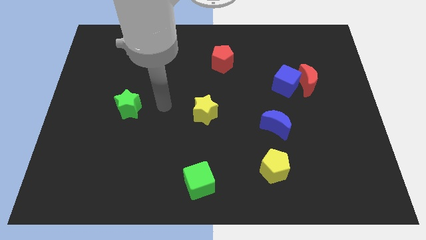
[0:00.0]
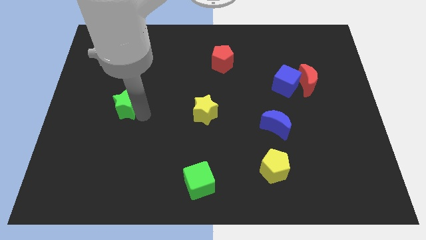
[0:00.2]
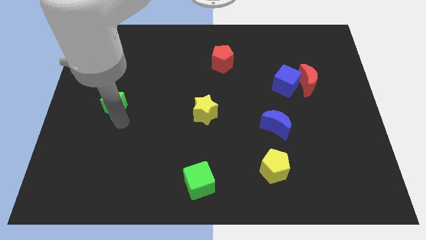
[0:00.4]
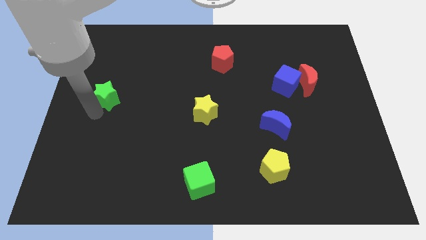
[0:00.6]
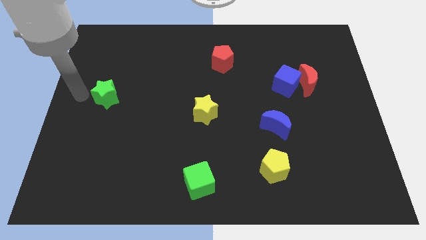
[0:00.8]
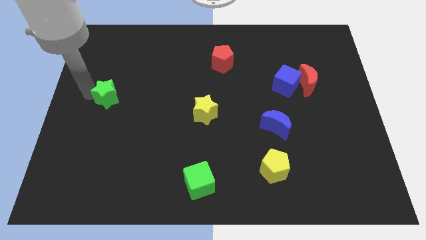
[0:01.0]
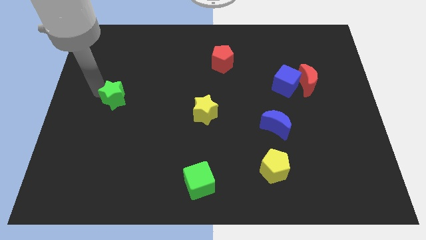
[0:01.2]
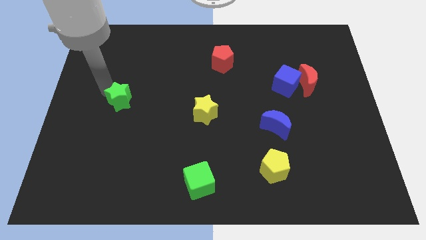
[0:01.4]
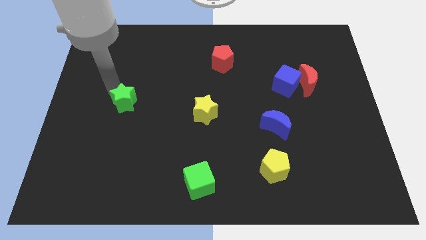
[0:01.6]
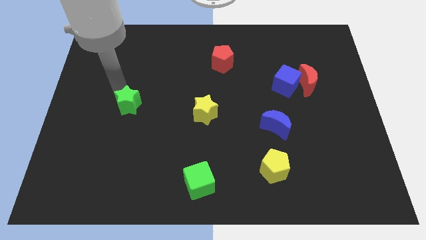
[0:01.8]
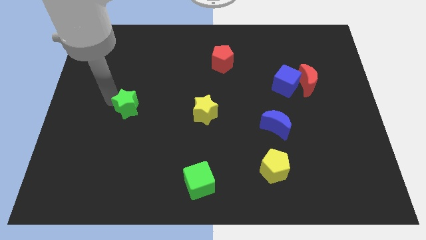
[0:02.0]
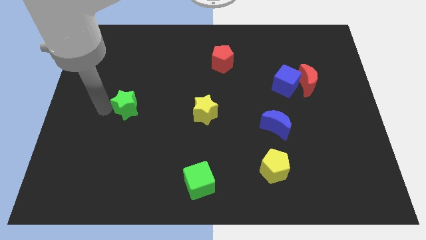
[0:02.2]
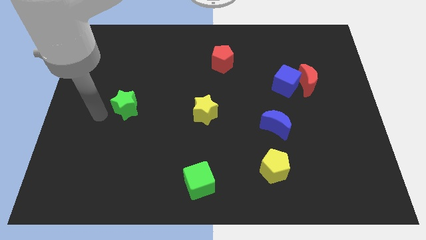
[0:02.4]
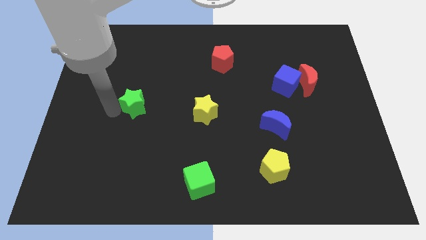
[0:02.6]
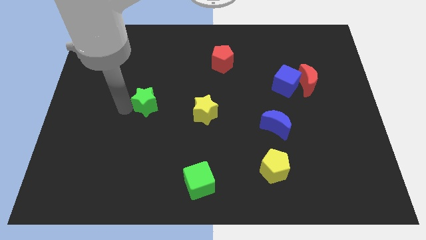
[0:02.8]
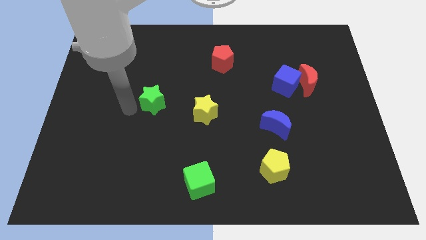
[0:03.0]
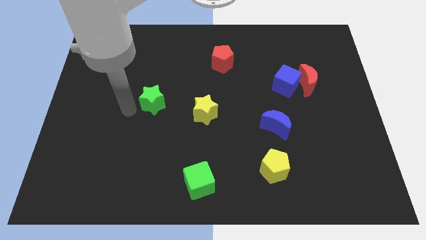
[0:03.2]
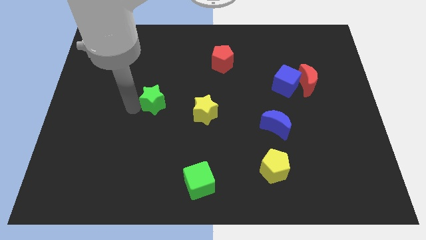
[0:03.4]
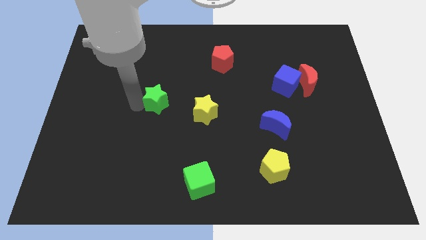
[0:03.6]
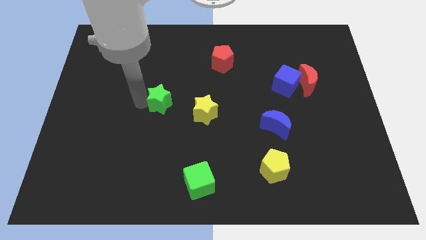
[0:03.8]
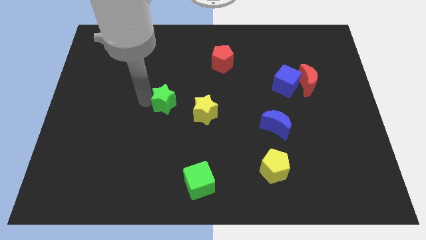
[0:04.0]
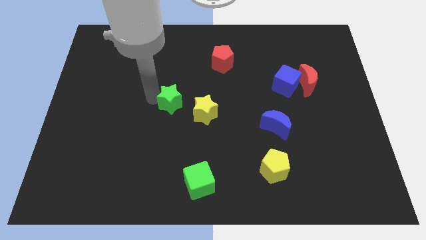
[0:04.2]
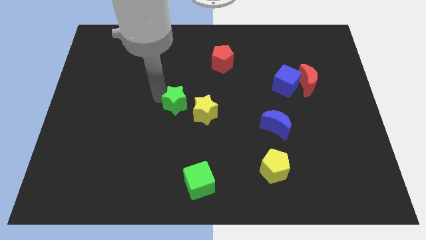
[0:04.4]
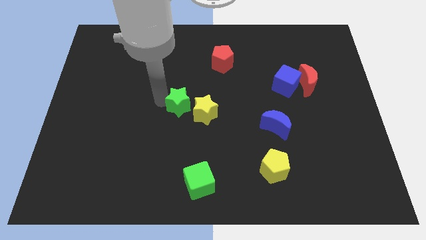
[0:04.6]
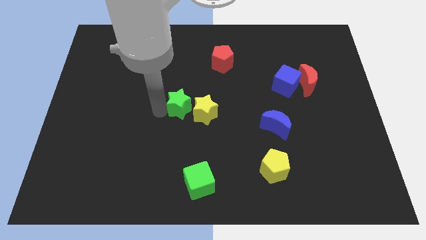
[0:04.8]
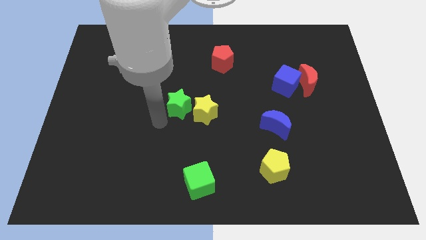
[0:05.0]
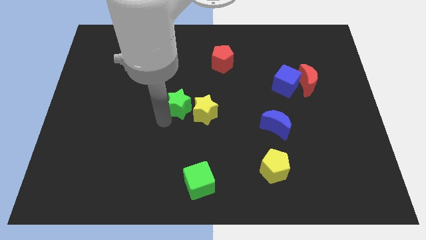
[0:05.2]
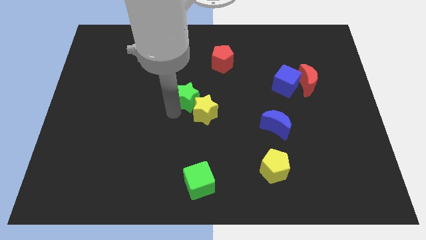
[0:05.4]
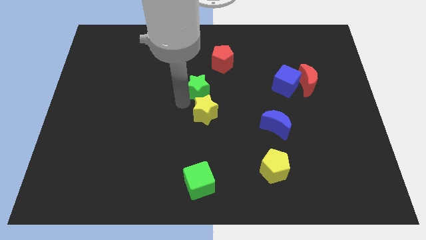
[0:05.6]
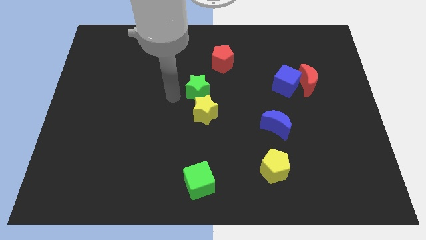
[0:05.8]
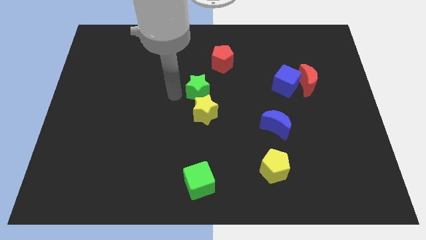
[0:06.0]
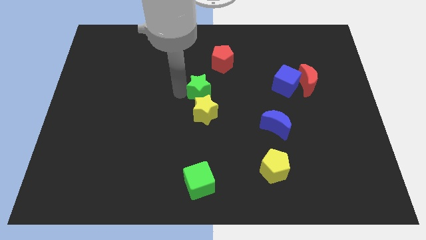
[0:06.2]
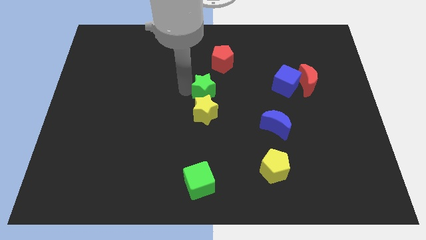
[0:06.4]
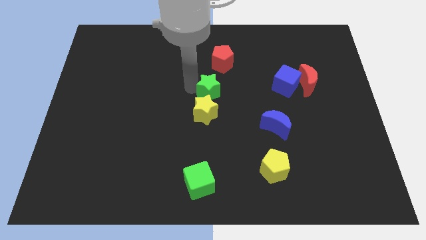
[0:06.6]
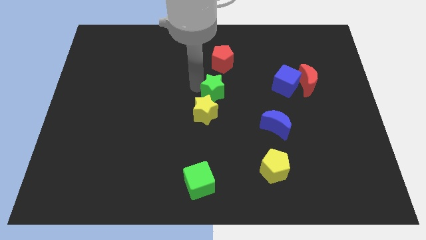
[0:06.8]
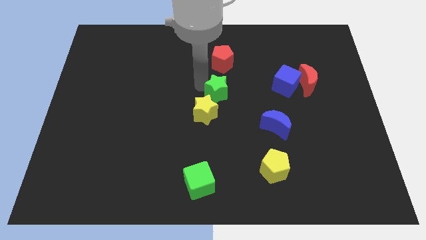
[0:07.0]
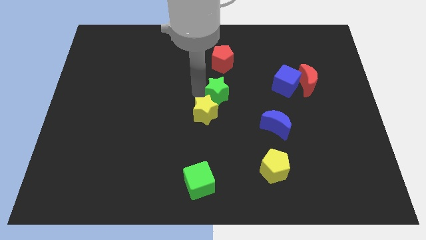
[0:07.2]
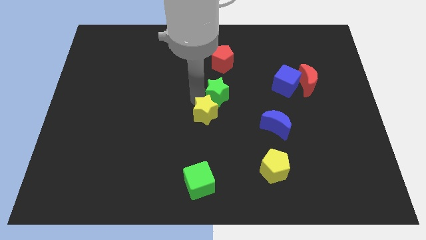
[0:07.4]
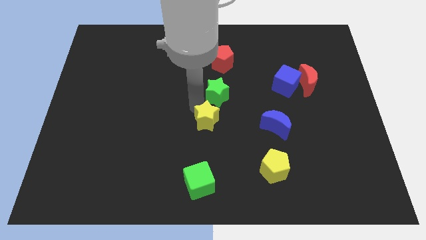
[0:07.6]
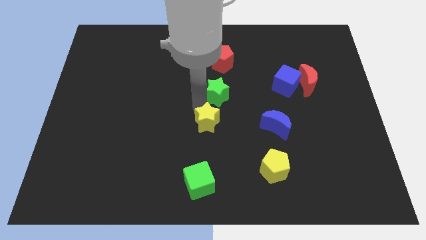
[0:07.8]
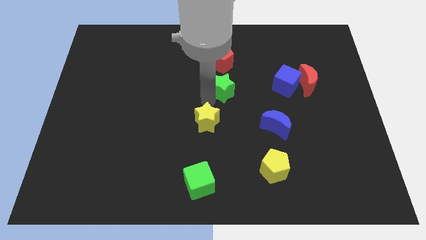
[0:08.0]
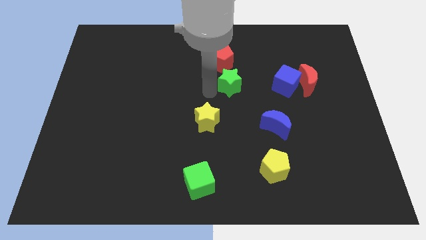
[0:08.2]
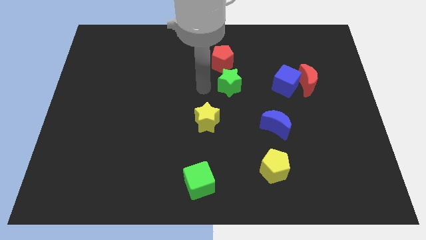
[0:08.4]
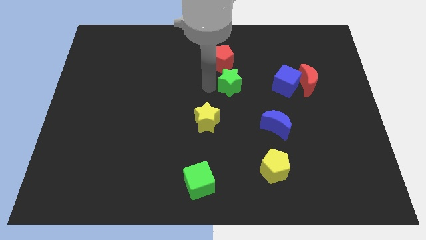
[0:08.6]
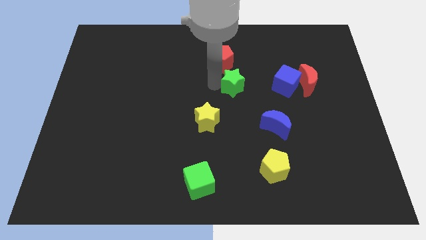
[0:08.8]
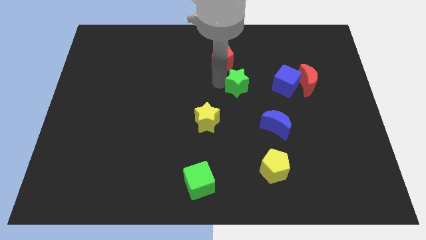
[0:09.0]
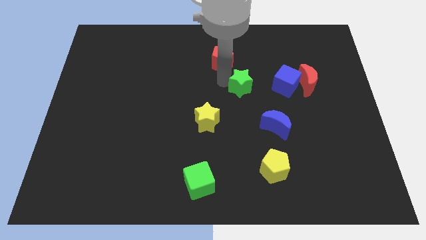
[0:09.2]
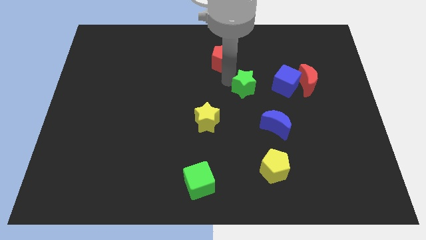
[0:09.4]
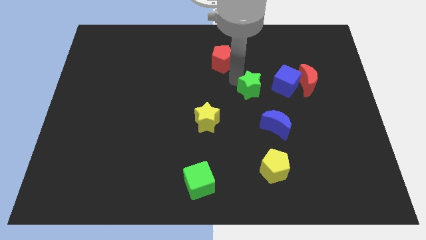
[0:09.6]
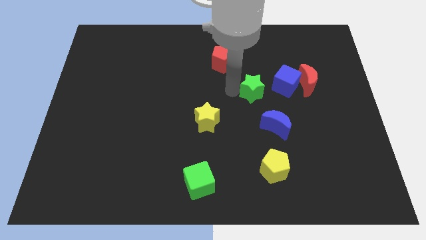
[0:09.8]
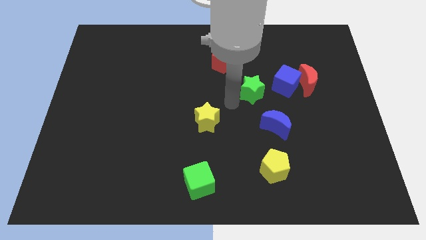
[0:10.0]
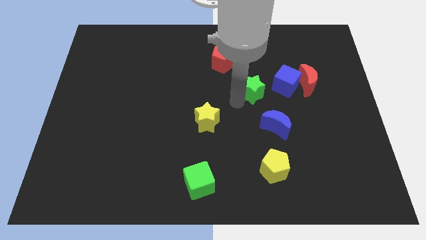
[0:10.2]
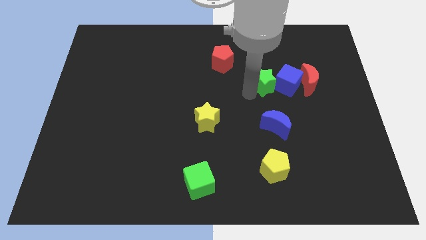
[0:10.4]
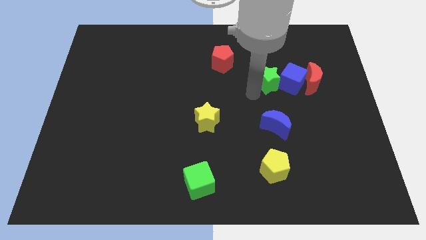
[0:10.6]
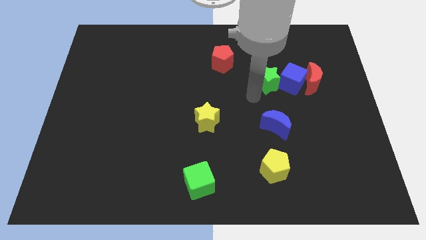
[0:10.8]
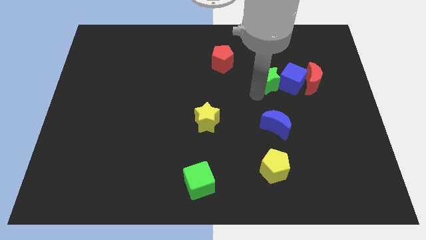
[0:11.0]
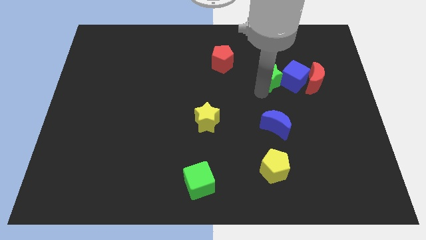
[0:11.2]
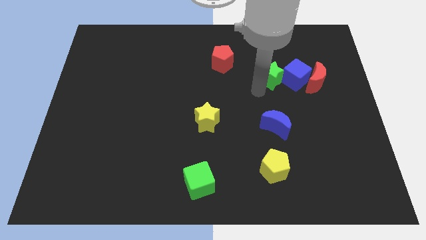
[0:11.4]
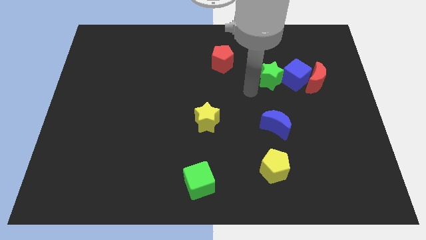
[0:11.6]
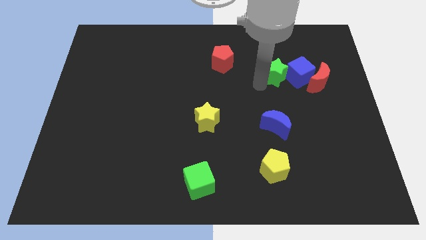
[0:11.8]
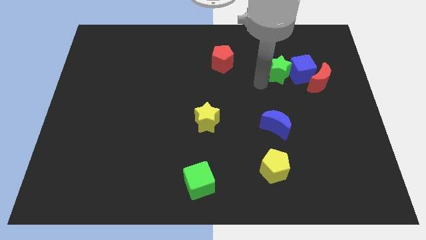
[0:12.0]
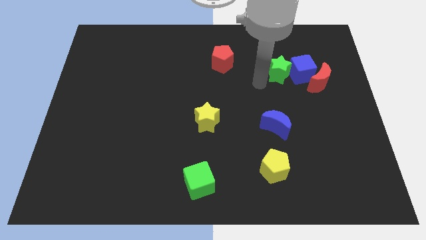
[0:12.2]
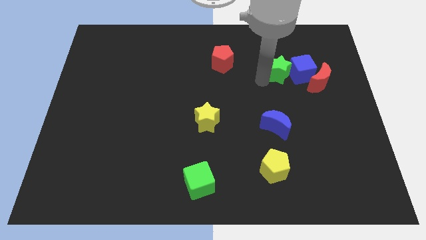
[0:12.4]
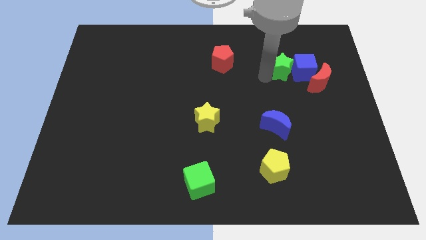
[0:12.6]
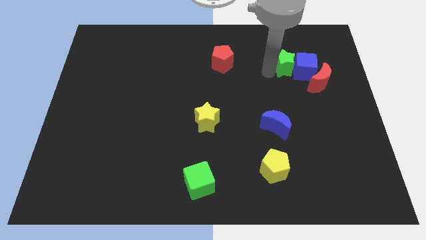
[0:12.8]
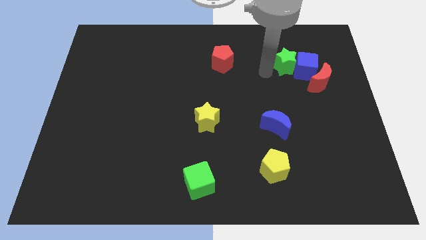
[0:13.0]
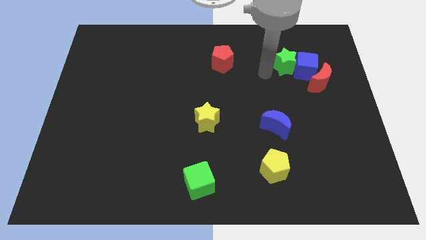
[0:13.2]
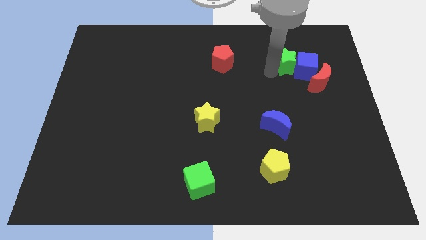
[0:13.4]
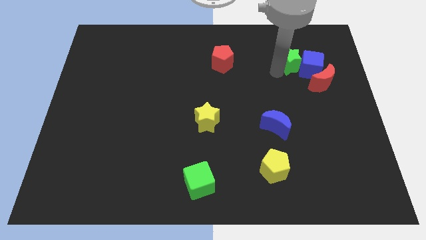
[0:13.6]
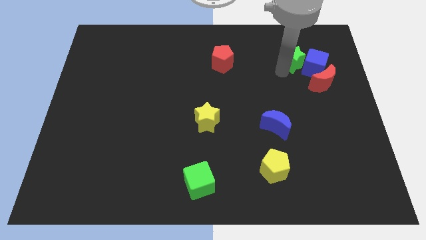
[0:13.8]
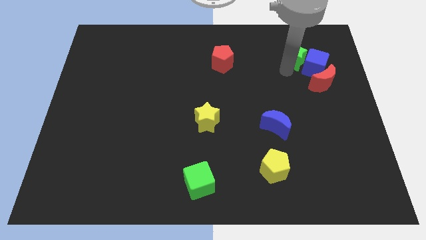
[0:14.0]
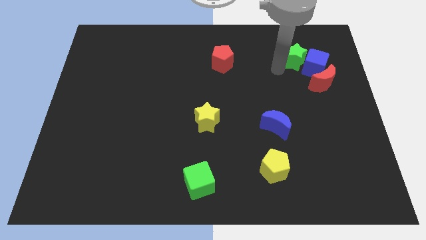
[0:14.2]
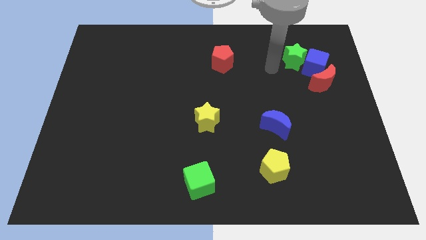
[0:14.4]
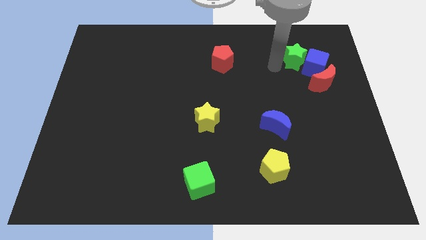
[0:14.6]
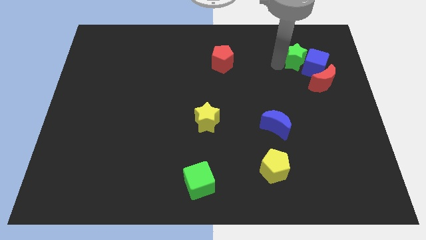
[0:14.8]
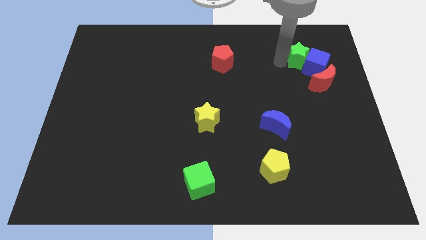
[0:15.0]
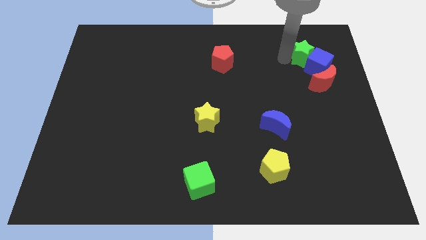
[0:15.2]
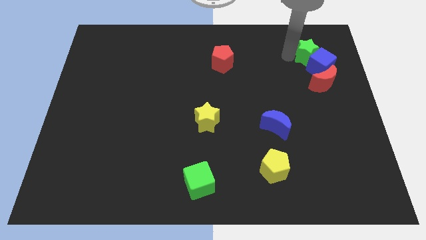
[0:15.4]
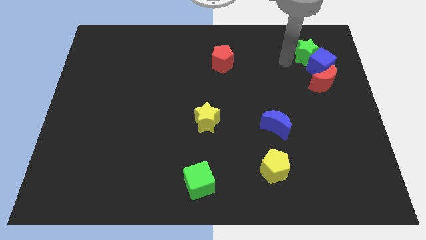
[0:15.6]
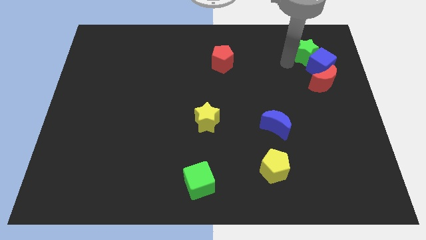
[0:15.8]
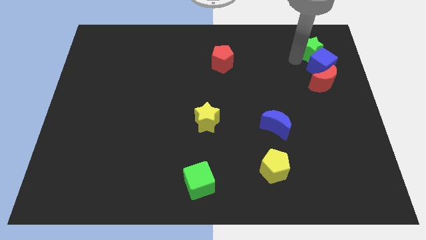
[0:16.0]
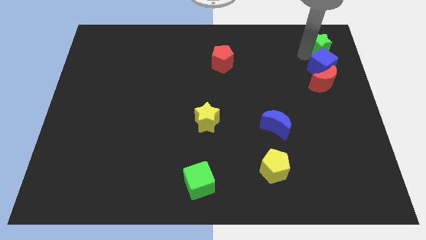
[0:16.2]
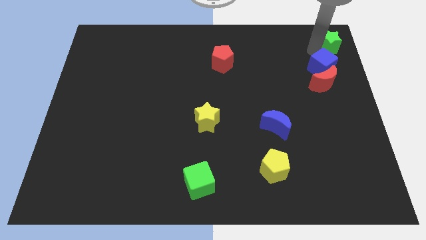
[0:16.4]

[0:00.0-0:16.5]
slide the green star to the upper right corner
